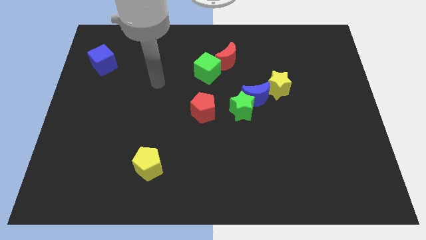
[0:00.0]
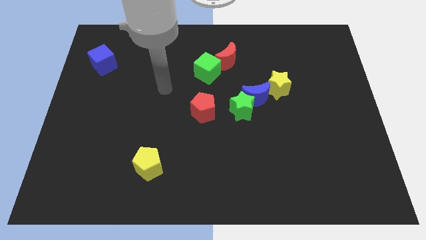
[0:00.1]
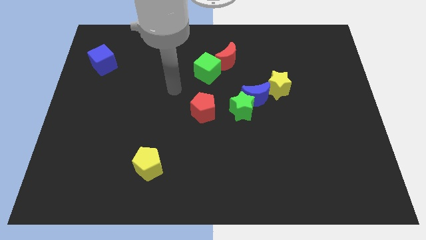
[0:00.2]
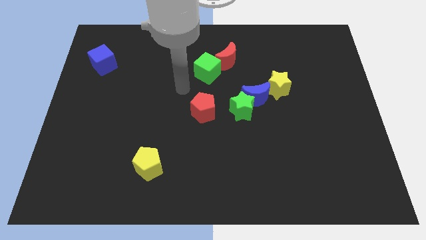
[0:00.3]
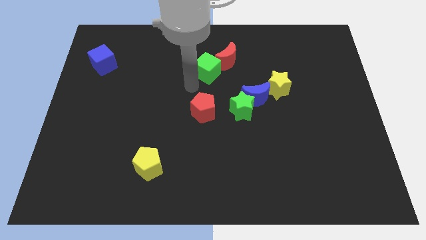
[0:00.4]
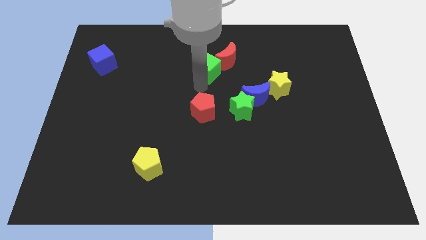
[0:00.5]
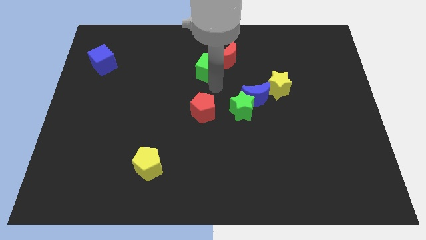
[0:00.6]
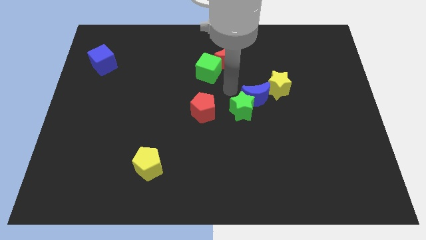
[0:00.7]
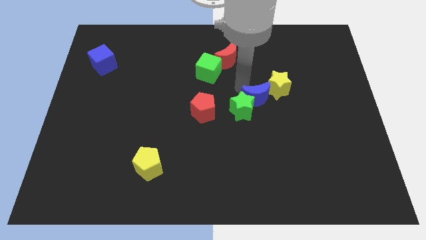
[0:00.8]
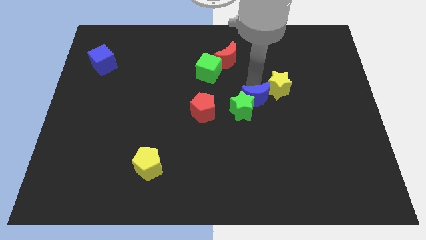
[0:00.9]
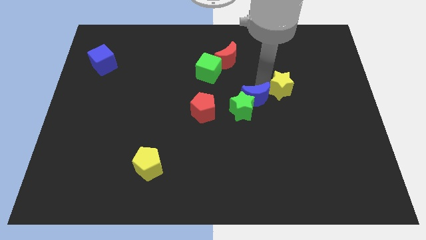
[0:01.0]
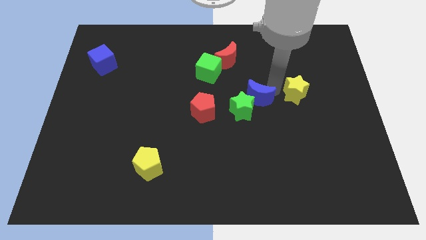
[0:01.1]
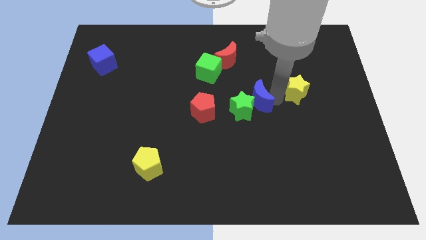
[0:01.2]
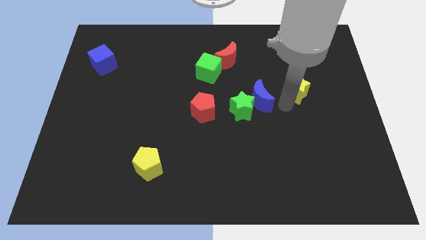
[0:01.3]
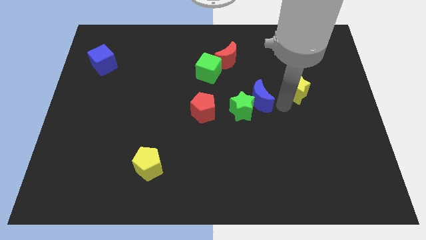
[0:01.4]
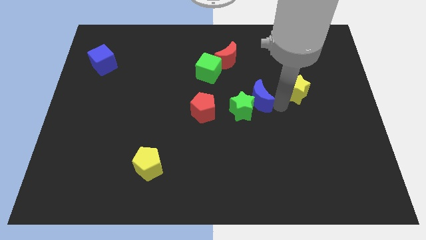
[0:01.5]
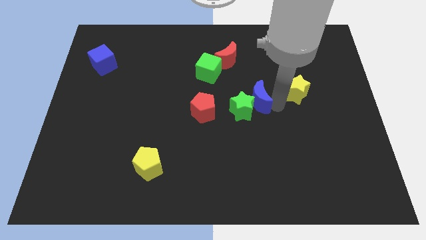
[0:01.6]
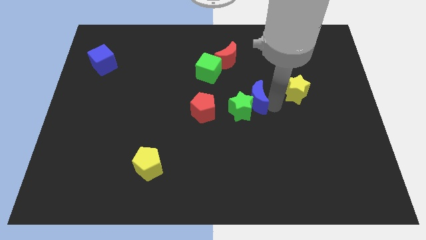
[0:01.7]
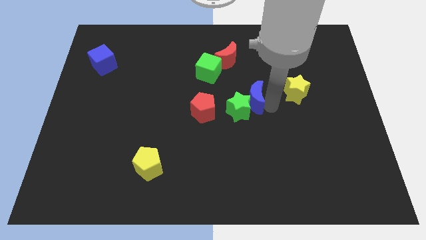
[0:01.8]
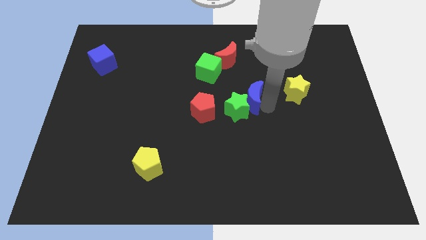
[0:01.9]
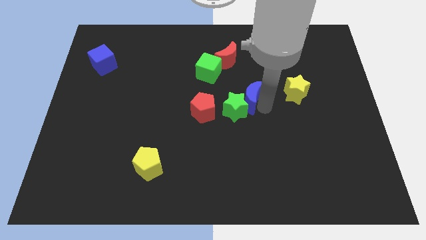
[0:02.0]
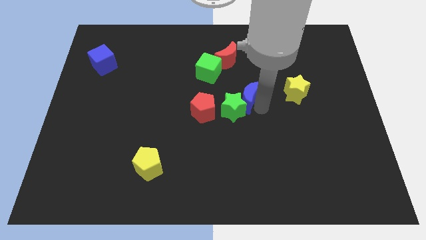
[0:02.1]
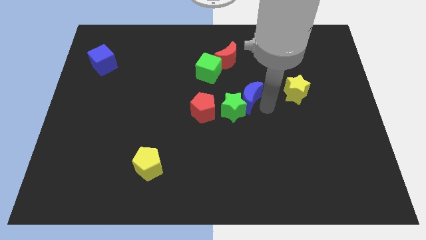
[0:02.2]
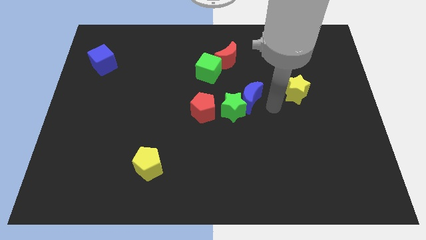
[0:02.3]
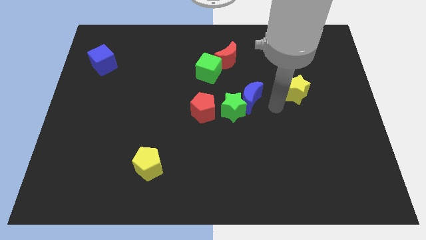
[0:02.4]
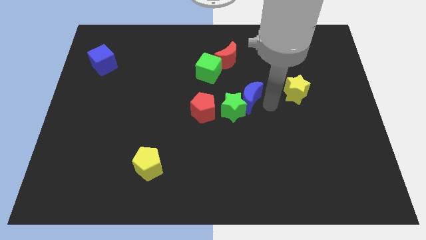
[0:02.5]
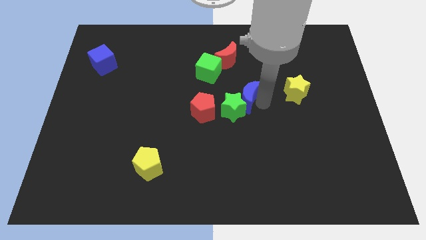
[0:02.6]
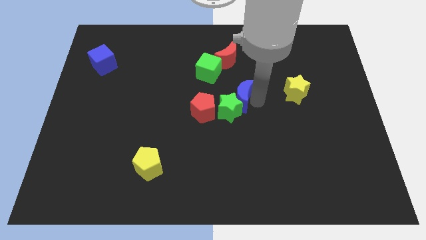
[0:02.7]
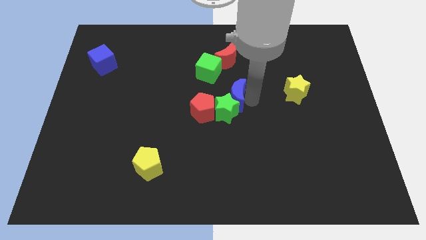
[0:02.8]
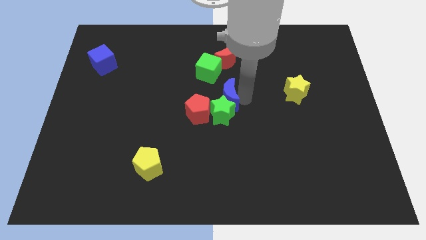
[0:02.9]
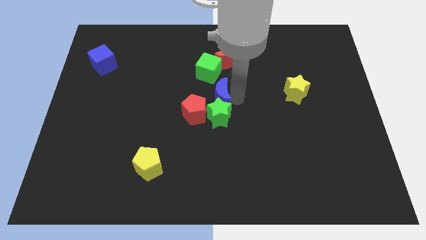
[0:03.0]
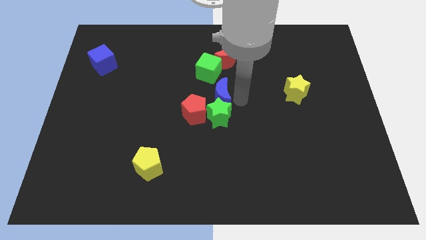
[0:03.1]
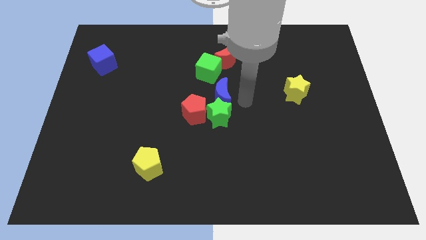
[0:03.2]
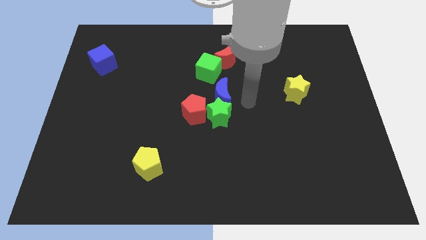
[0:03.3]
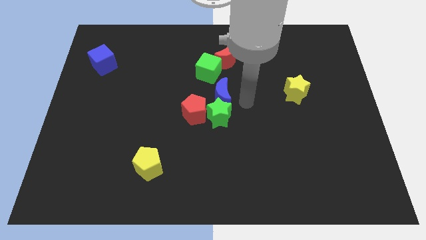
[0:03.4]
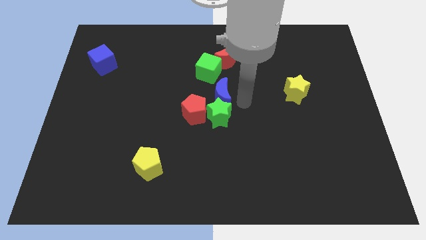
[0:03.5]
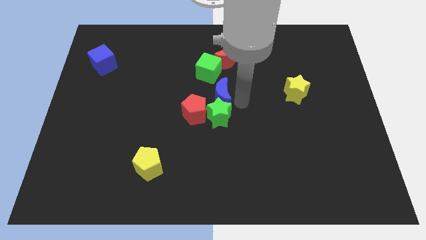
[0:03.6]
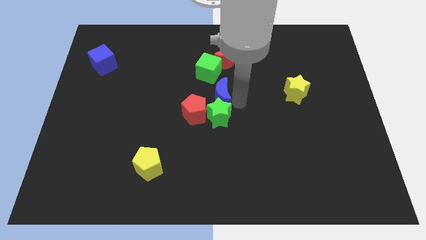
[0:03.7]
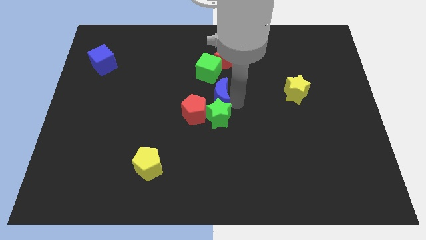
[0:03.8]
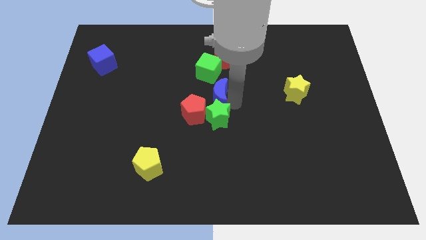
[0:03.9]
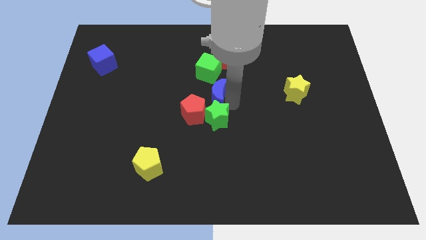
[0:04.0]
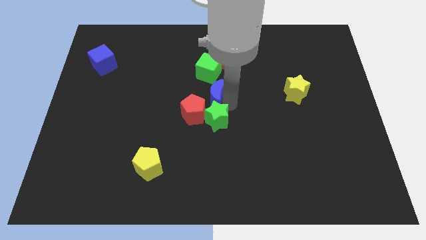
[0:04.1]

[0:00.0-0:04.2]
move the blue moon away from the green star and yellow star

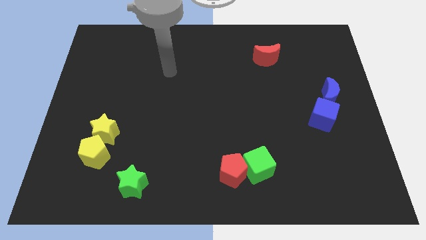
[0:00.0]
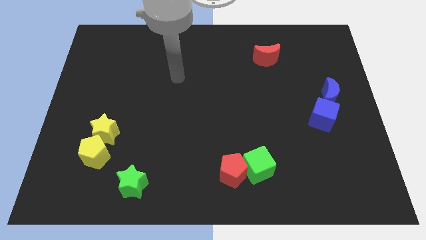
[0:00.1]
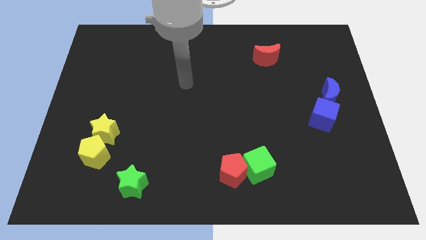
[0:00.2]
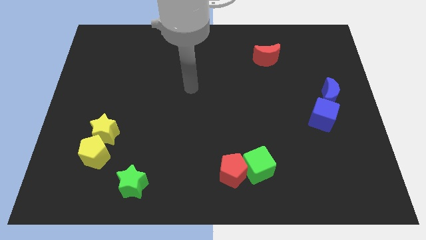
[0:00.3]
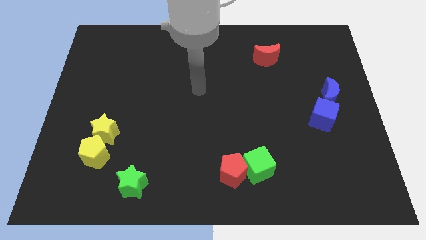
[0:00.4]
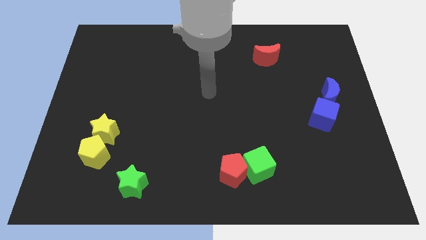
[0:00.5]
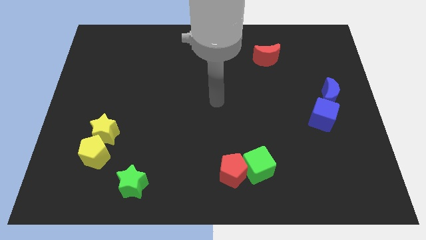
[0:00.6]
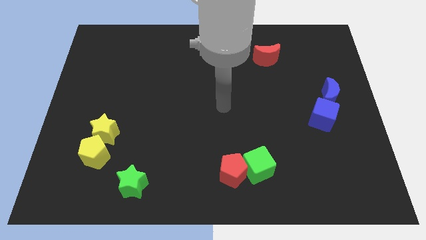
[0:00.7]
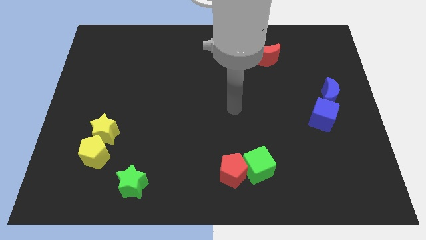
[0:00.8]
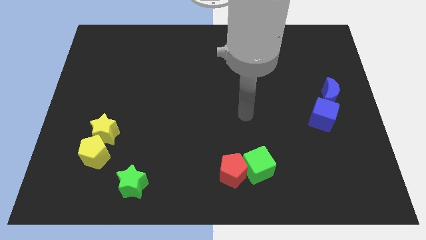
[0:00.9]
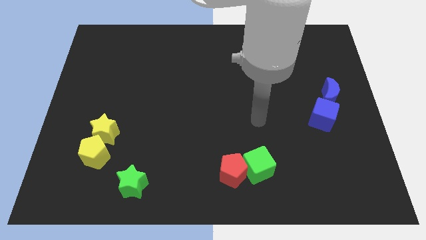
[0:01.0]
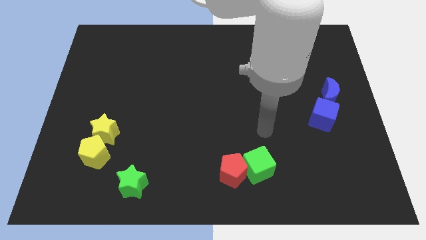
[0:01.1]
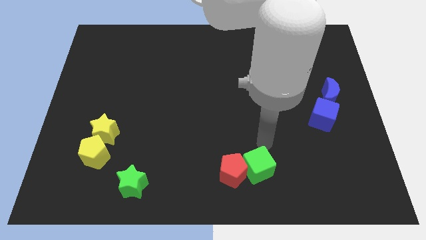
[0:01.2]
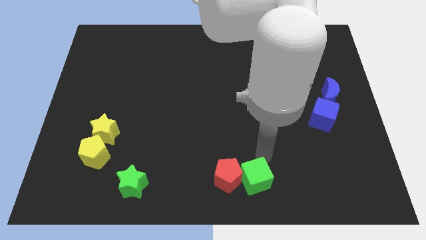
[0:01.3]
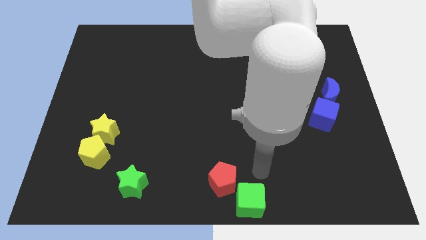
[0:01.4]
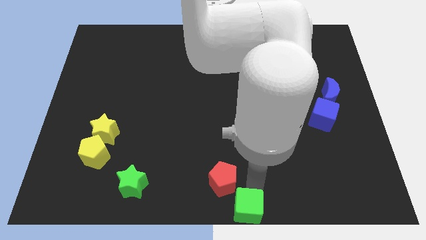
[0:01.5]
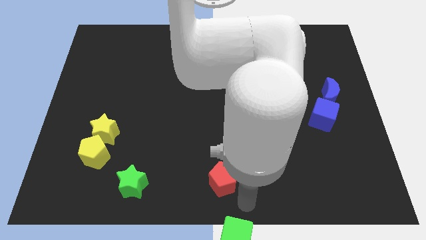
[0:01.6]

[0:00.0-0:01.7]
move the red pentagon away from the green cube

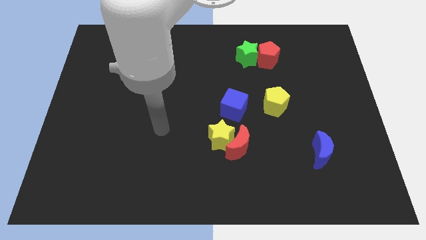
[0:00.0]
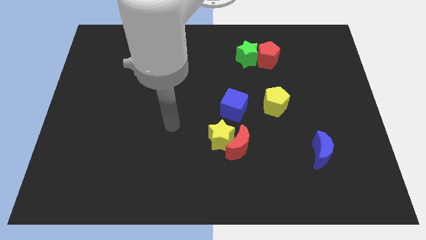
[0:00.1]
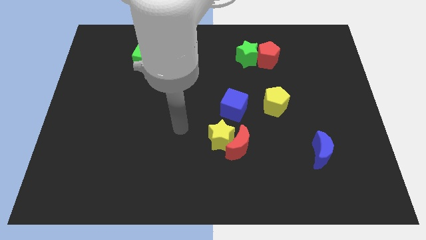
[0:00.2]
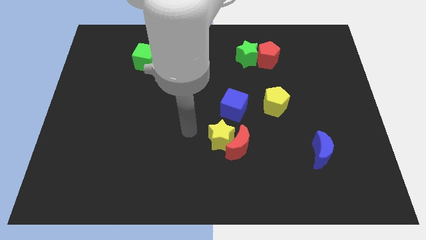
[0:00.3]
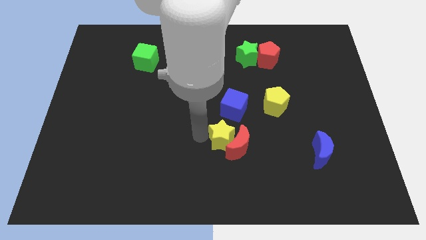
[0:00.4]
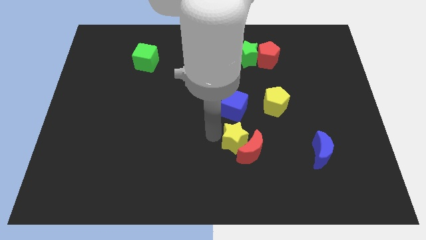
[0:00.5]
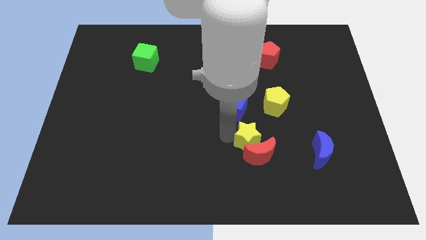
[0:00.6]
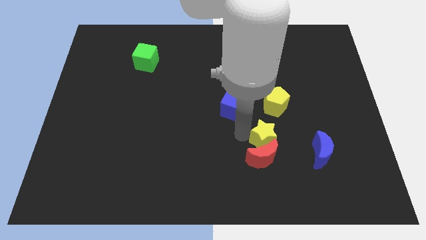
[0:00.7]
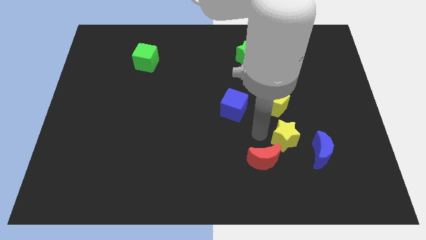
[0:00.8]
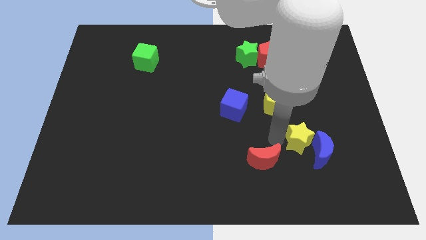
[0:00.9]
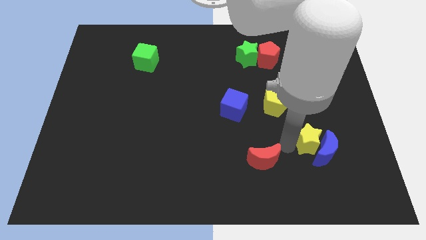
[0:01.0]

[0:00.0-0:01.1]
separate the red moon from the yellow star

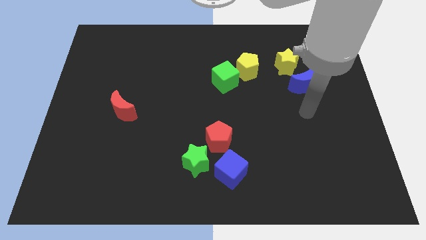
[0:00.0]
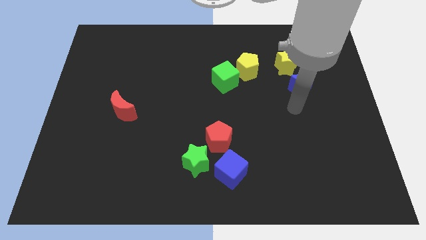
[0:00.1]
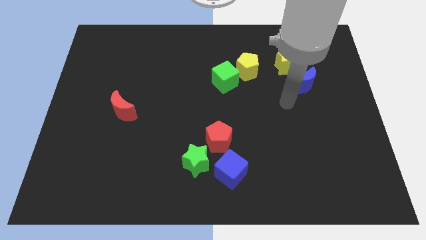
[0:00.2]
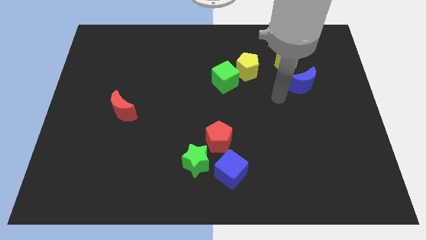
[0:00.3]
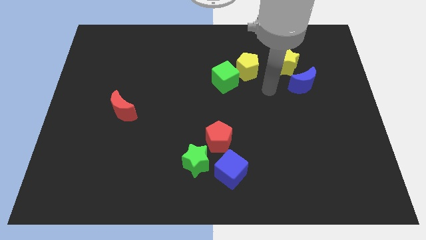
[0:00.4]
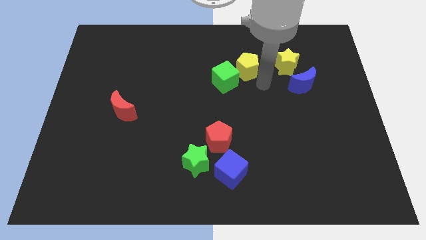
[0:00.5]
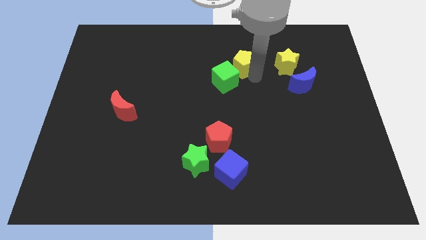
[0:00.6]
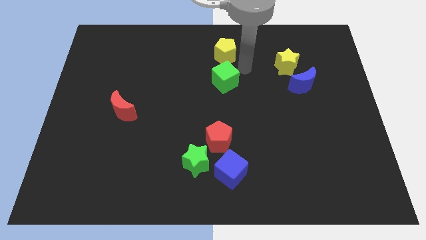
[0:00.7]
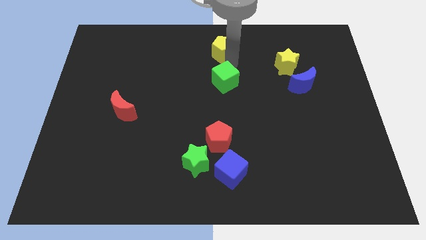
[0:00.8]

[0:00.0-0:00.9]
pull the green cube apart from the yellow pentagon

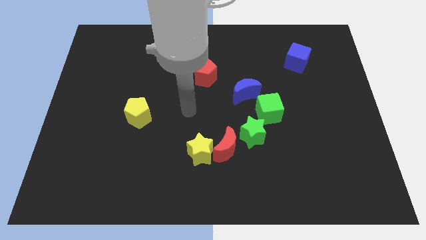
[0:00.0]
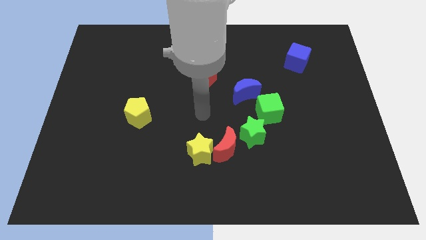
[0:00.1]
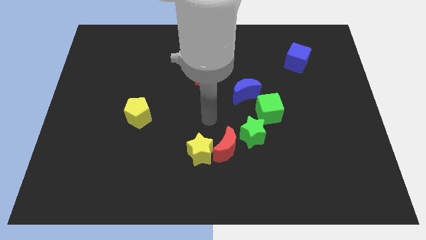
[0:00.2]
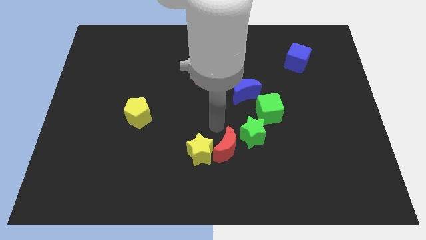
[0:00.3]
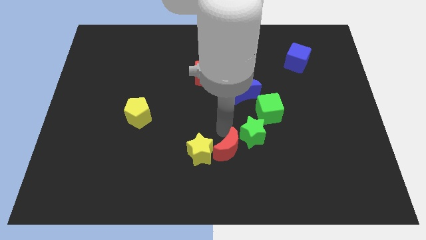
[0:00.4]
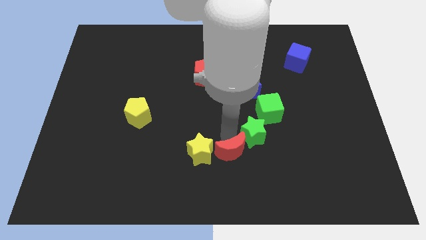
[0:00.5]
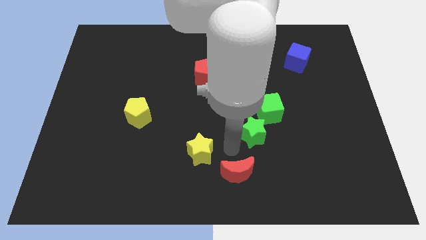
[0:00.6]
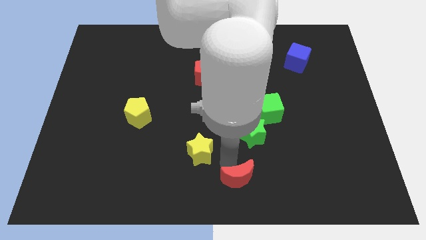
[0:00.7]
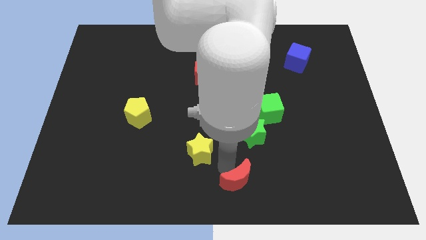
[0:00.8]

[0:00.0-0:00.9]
pull the yellow star apart from the red moon

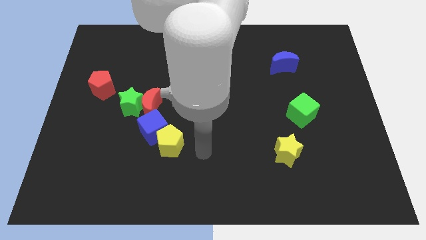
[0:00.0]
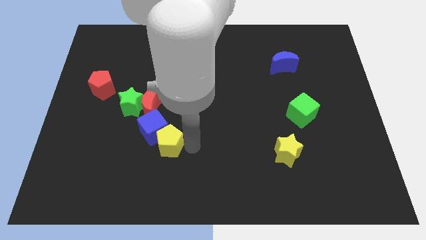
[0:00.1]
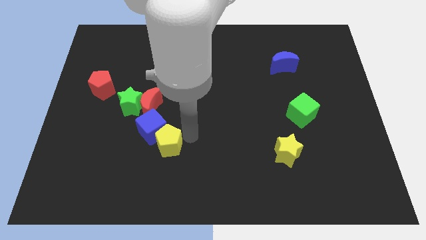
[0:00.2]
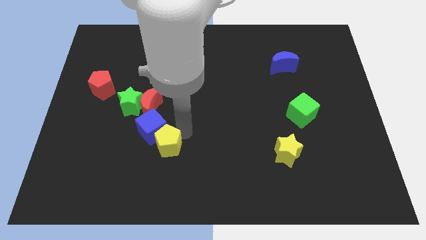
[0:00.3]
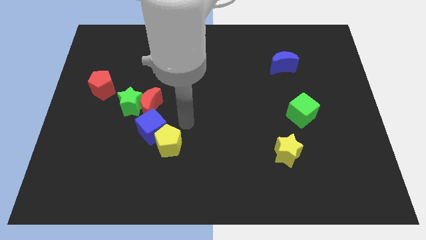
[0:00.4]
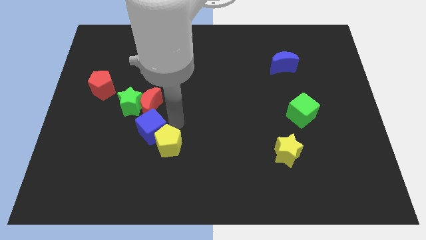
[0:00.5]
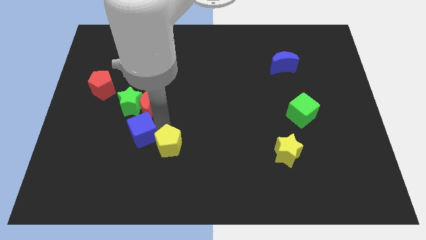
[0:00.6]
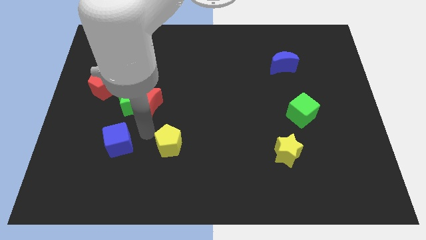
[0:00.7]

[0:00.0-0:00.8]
pull the yellow pentagon apart from the blue cube
